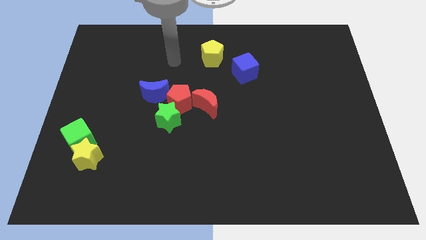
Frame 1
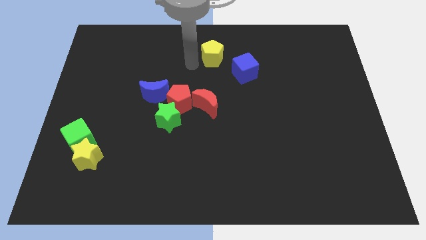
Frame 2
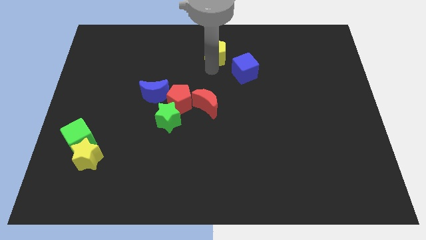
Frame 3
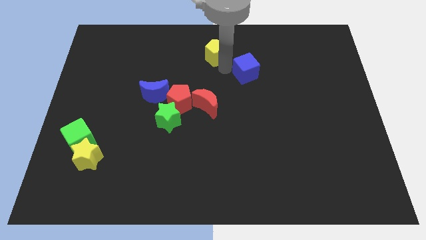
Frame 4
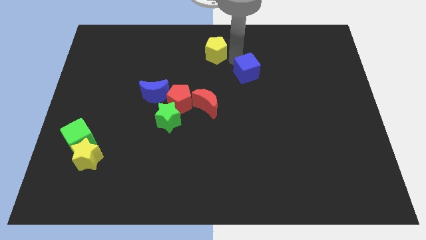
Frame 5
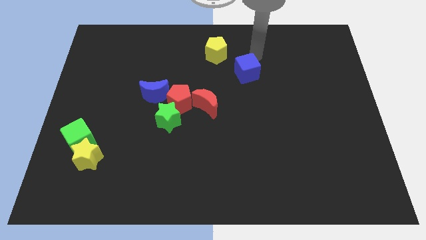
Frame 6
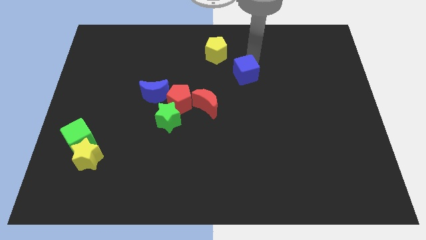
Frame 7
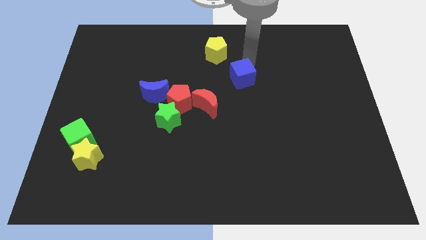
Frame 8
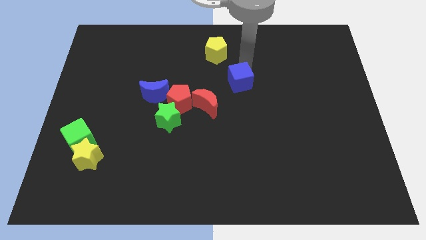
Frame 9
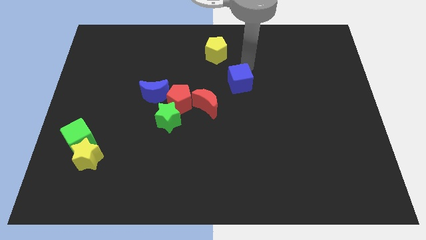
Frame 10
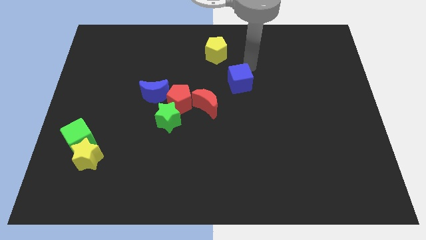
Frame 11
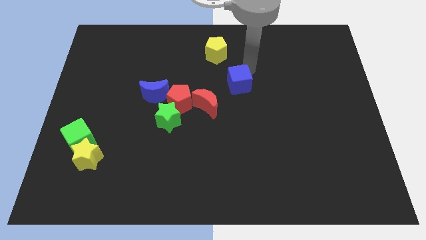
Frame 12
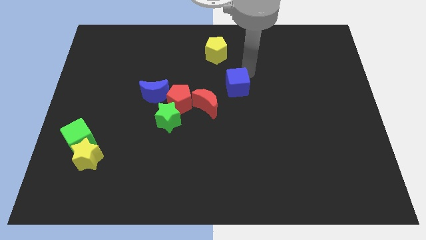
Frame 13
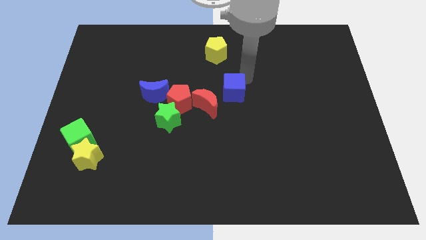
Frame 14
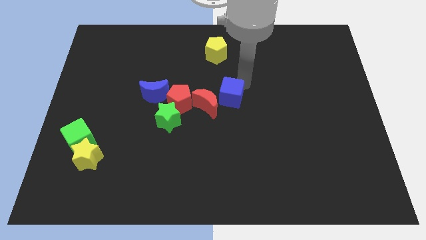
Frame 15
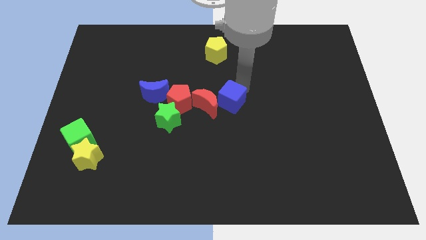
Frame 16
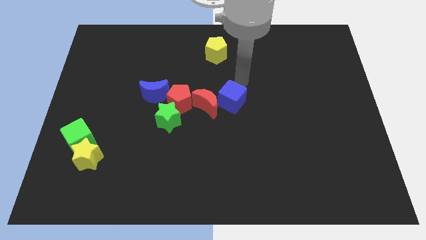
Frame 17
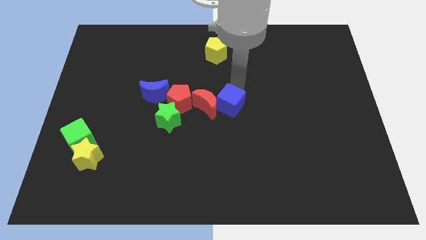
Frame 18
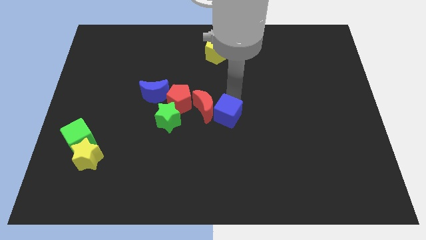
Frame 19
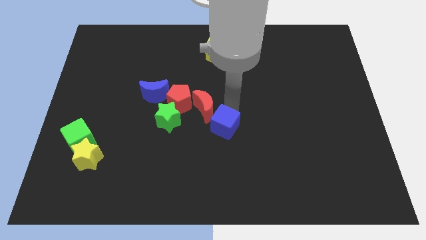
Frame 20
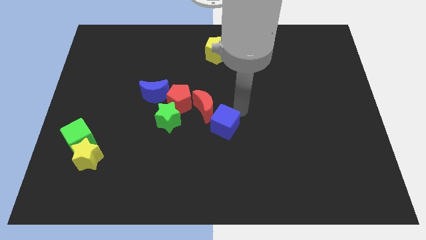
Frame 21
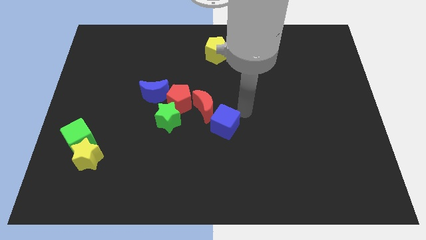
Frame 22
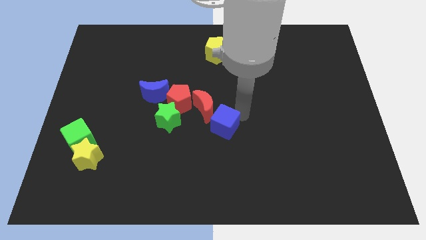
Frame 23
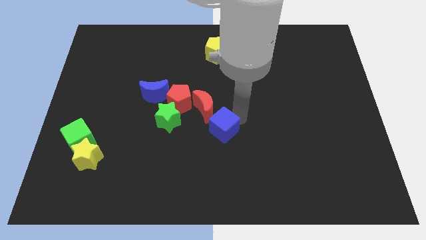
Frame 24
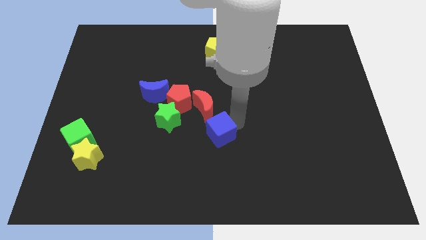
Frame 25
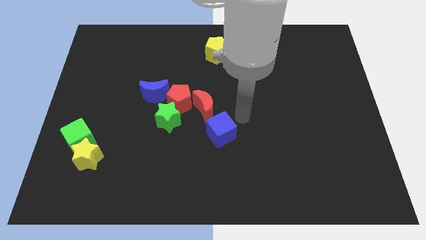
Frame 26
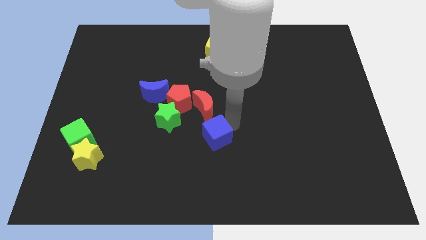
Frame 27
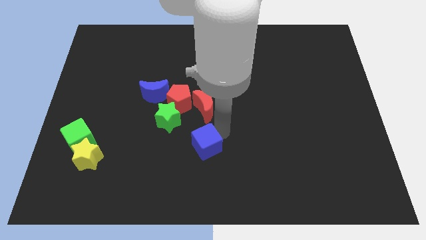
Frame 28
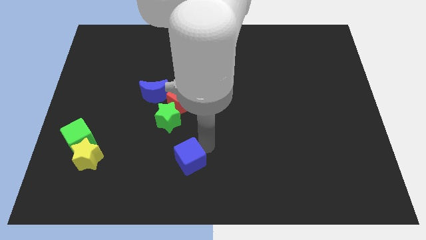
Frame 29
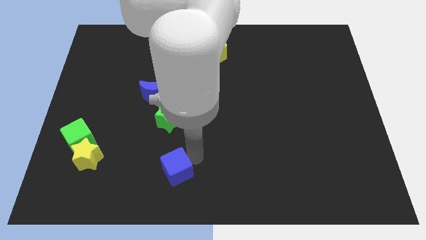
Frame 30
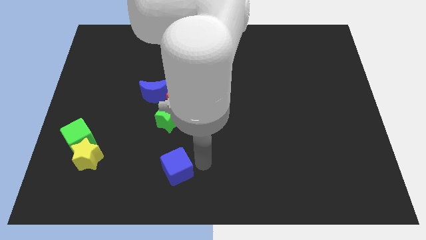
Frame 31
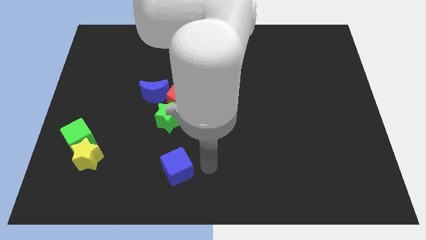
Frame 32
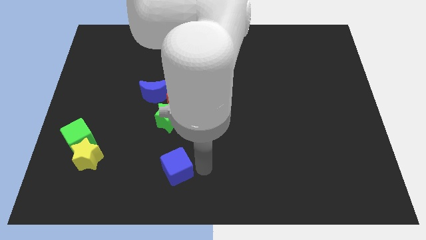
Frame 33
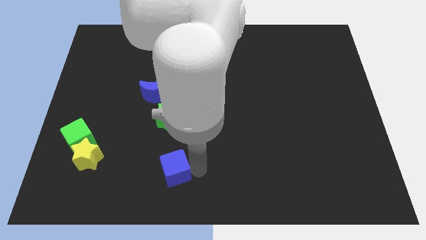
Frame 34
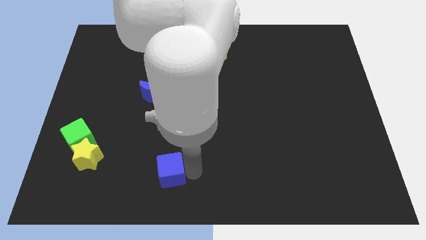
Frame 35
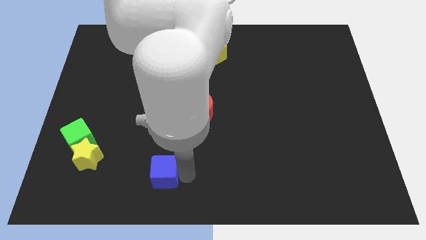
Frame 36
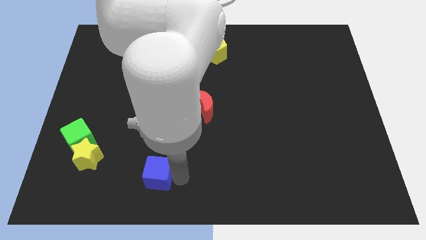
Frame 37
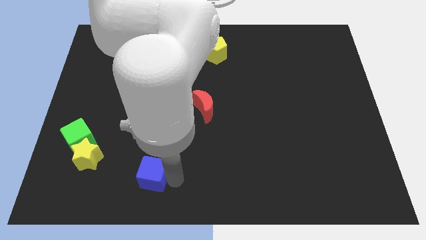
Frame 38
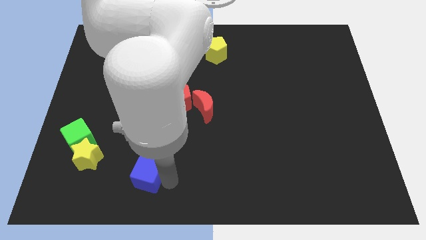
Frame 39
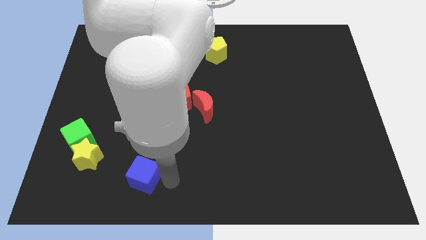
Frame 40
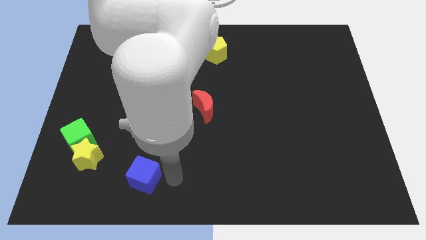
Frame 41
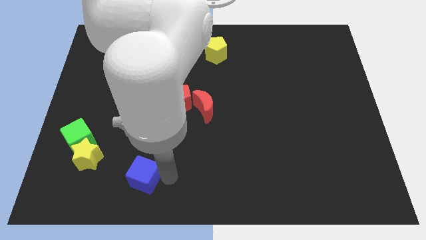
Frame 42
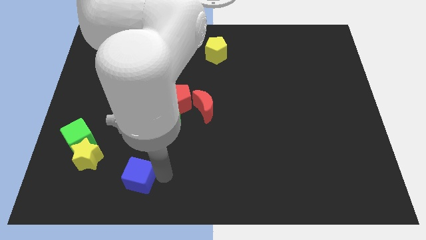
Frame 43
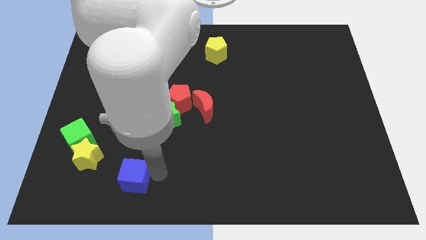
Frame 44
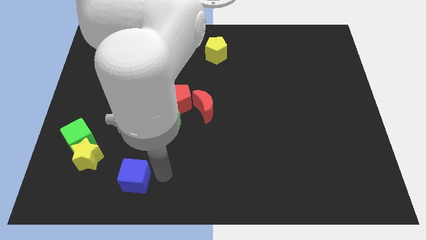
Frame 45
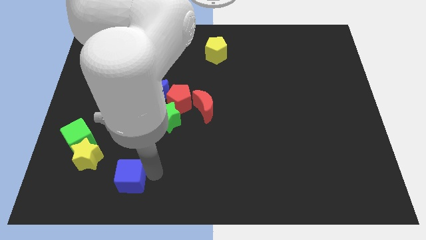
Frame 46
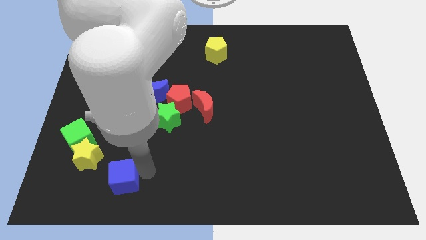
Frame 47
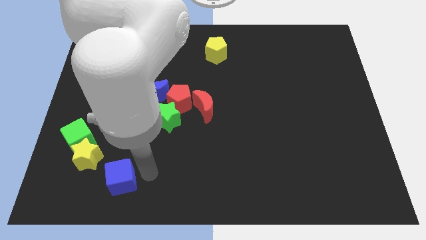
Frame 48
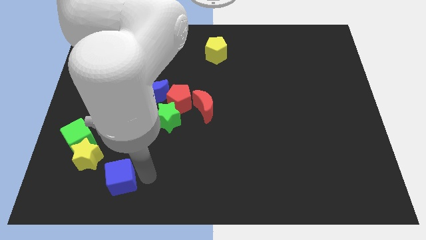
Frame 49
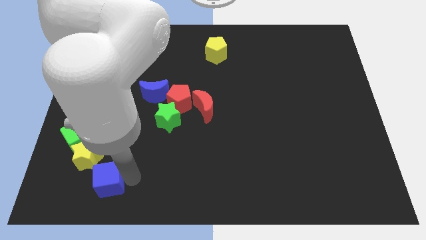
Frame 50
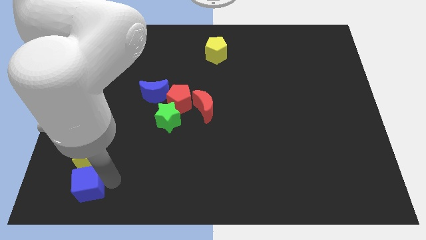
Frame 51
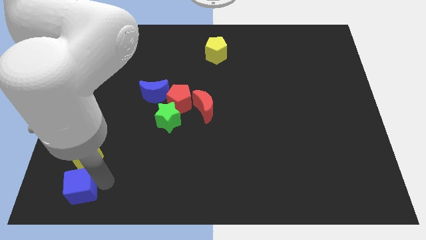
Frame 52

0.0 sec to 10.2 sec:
slide the blue cube to the lower left corner
